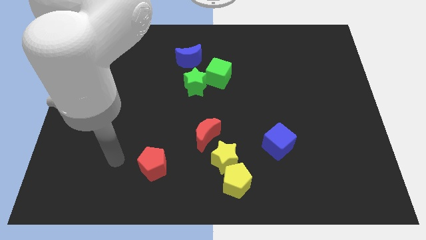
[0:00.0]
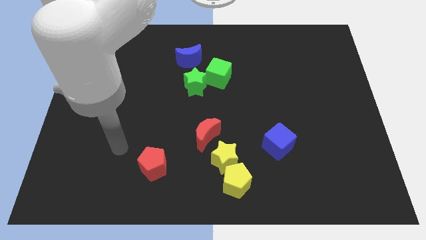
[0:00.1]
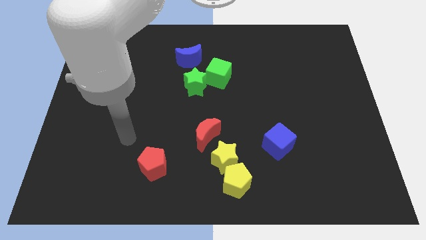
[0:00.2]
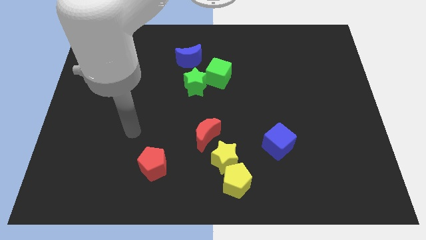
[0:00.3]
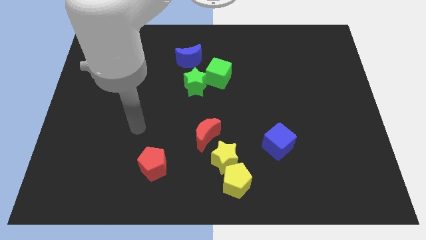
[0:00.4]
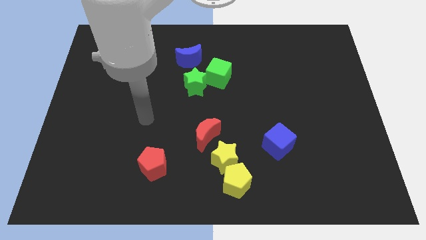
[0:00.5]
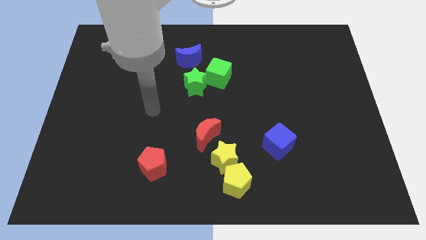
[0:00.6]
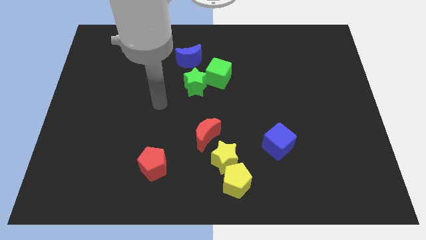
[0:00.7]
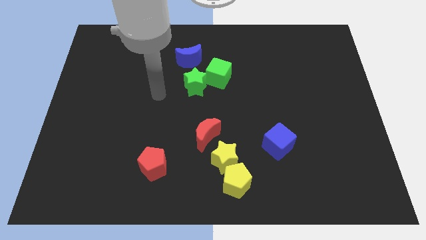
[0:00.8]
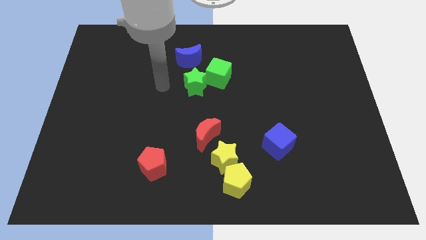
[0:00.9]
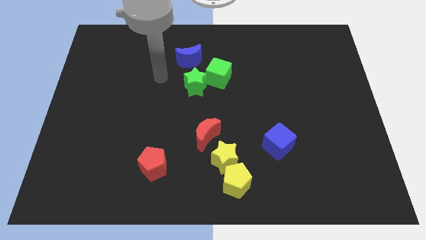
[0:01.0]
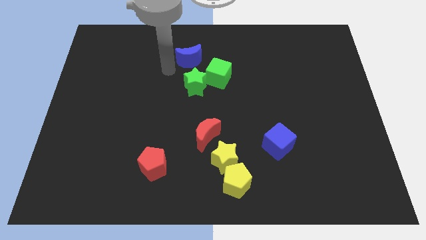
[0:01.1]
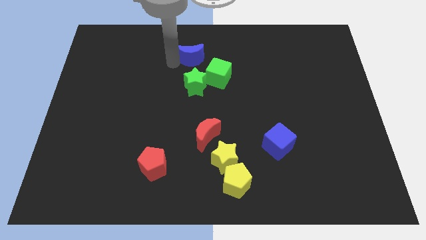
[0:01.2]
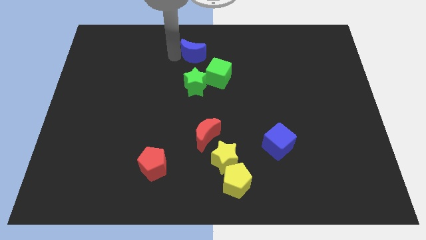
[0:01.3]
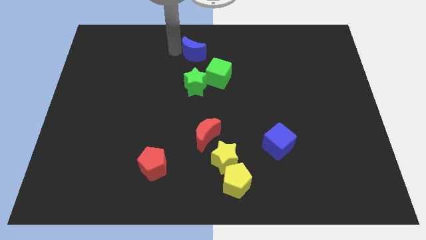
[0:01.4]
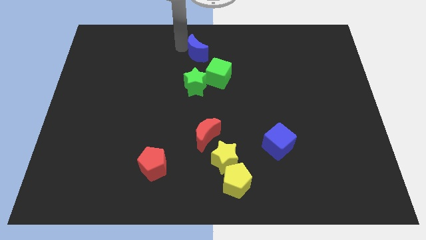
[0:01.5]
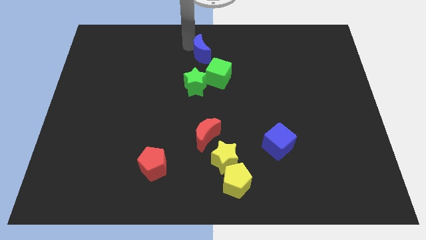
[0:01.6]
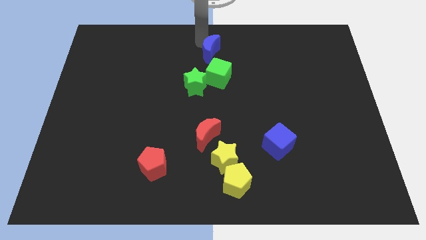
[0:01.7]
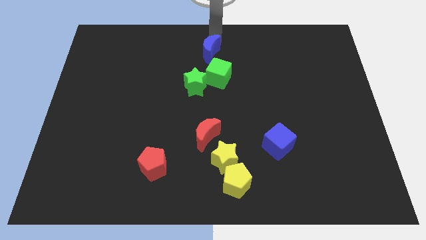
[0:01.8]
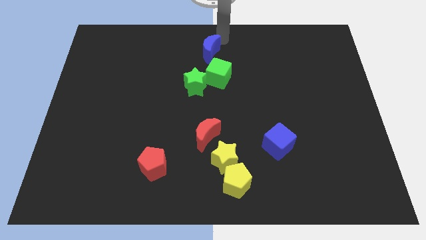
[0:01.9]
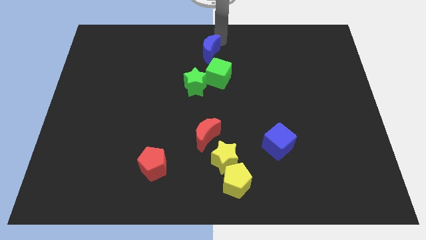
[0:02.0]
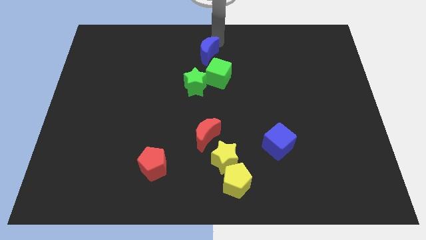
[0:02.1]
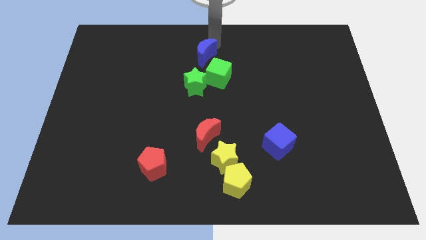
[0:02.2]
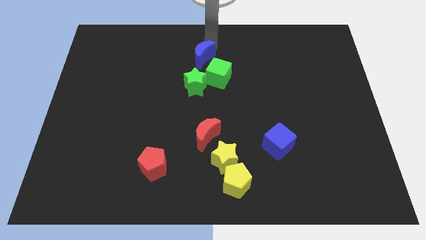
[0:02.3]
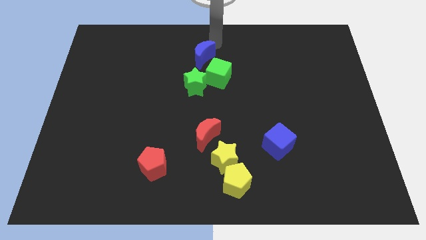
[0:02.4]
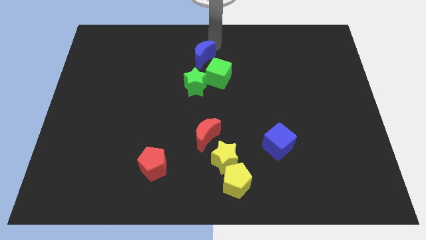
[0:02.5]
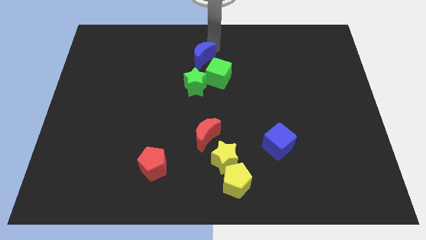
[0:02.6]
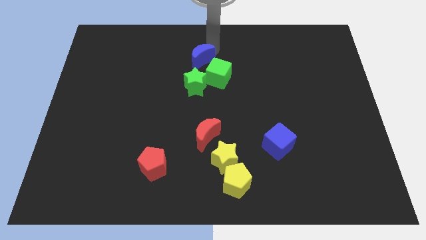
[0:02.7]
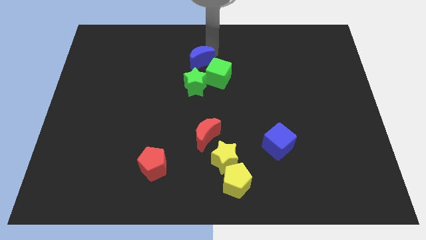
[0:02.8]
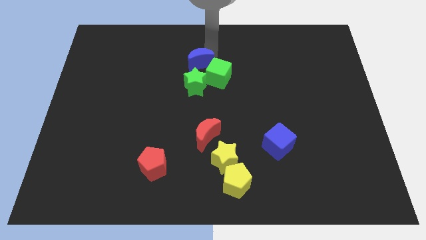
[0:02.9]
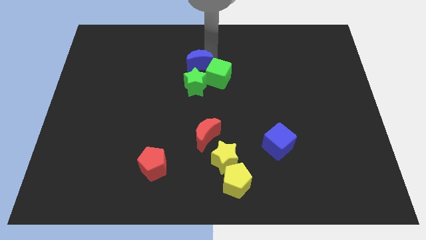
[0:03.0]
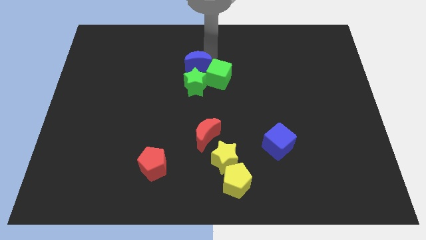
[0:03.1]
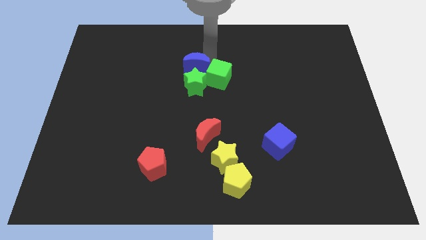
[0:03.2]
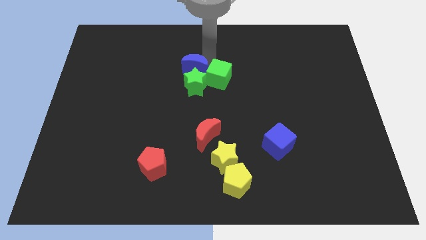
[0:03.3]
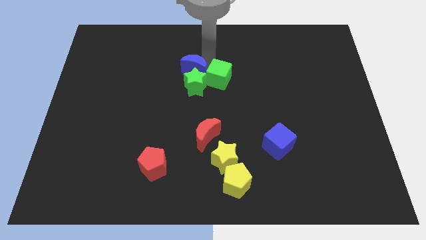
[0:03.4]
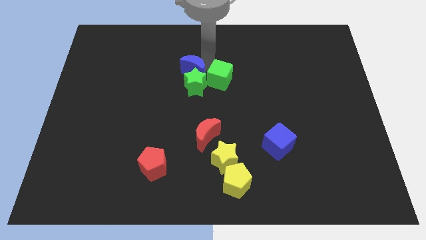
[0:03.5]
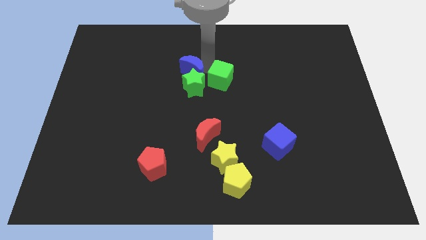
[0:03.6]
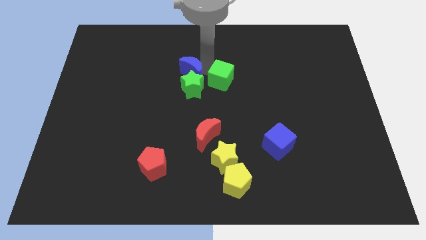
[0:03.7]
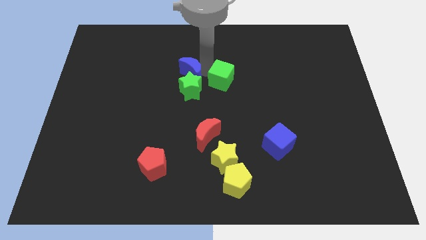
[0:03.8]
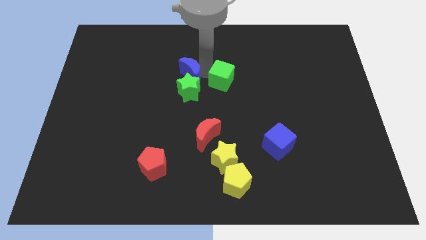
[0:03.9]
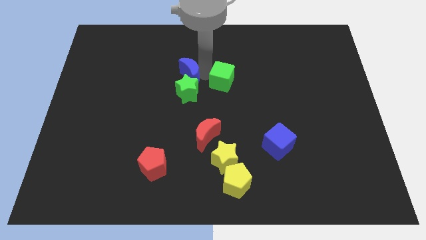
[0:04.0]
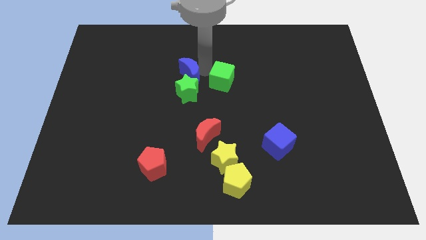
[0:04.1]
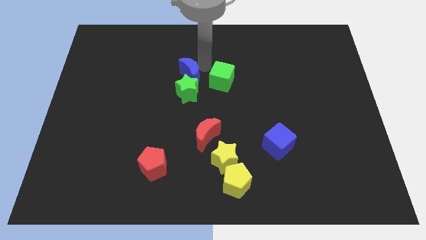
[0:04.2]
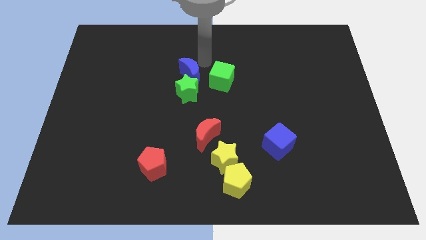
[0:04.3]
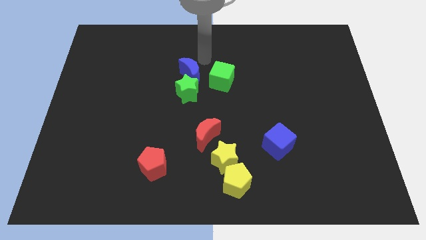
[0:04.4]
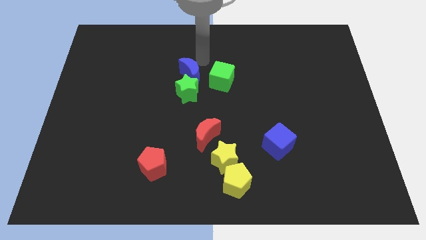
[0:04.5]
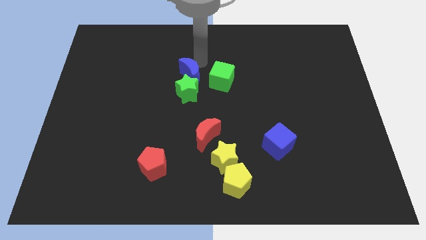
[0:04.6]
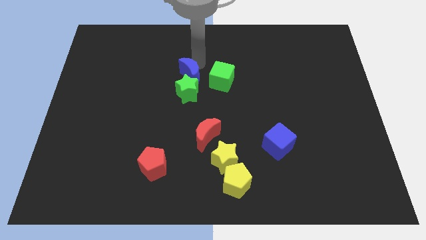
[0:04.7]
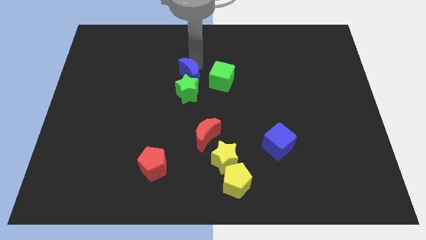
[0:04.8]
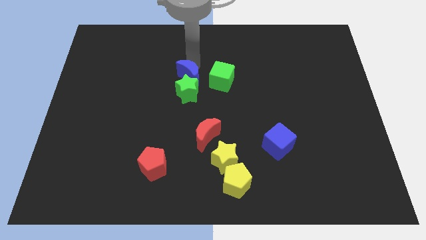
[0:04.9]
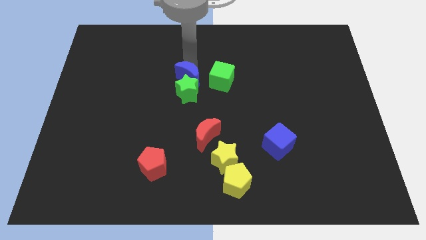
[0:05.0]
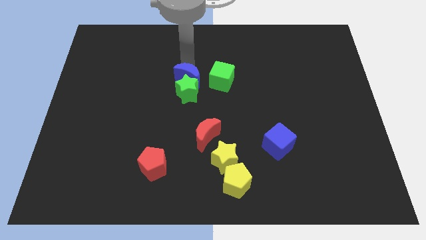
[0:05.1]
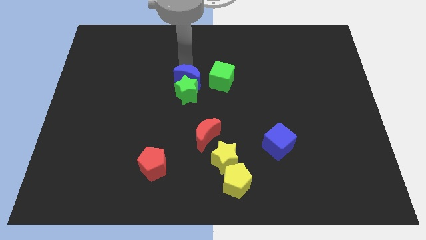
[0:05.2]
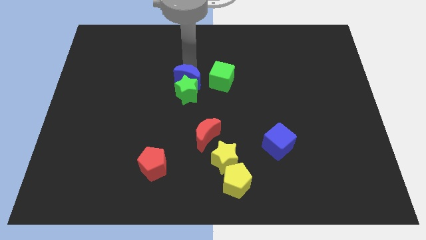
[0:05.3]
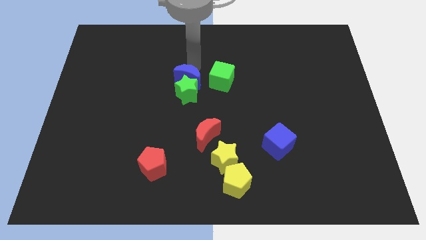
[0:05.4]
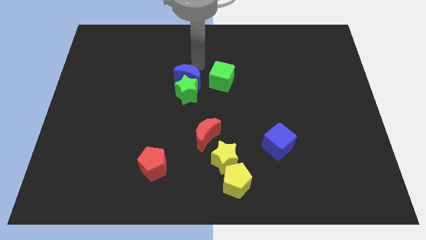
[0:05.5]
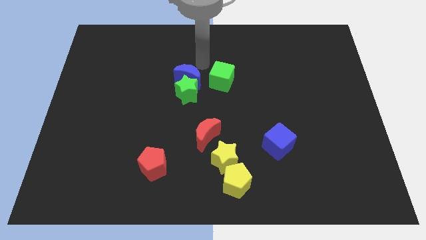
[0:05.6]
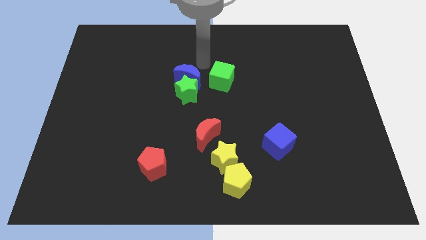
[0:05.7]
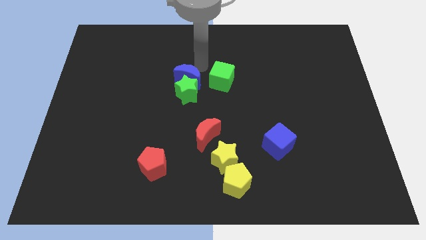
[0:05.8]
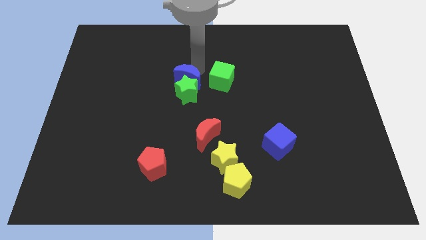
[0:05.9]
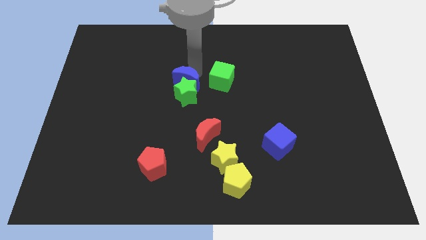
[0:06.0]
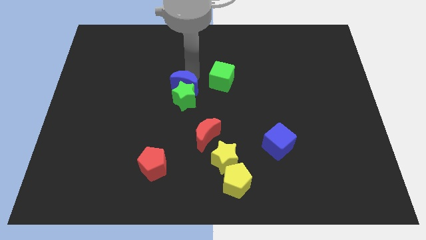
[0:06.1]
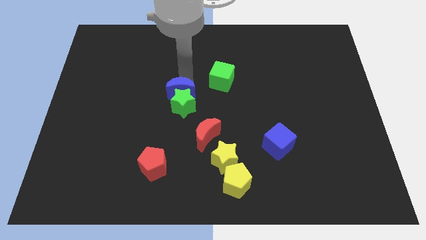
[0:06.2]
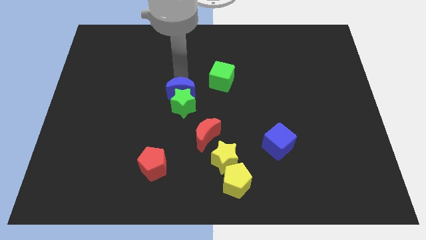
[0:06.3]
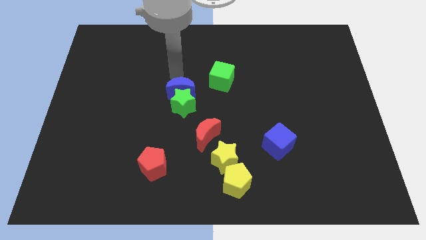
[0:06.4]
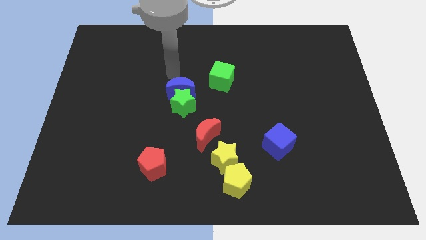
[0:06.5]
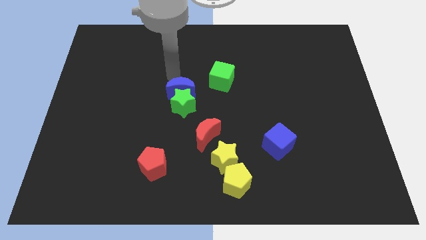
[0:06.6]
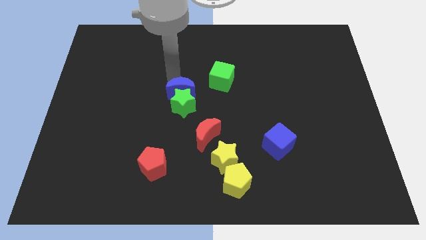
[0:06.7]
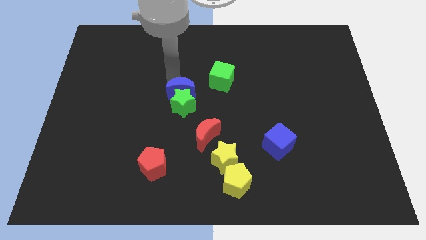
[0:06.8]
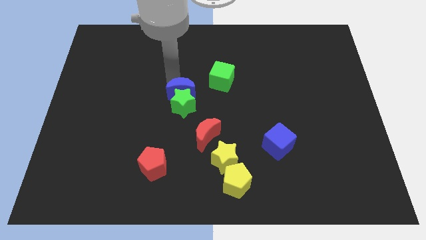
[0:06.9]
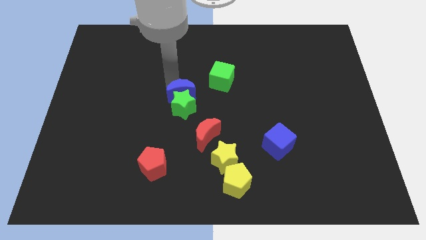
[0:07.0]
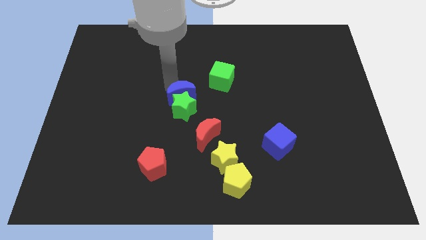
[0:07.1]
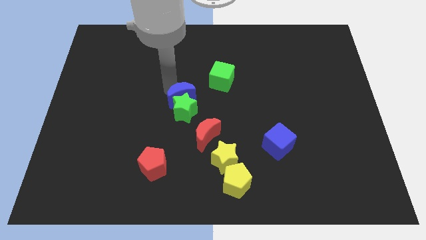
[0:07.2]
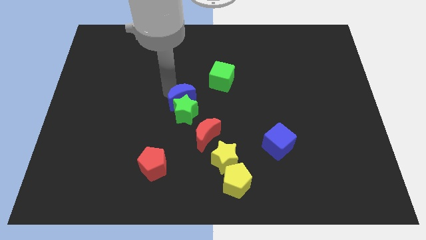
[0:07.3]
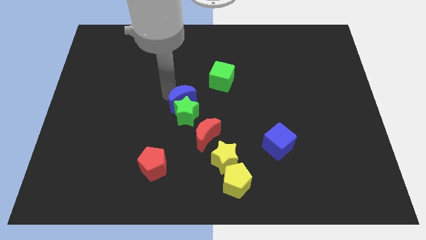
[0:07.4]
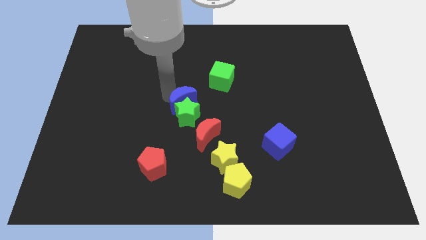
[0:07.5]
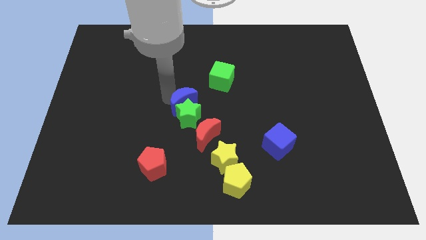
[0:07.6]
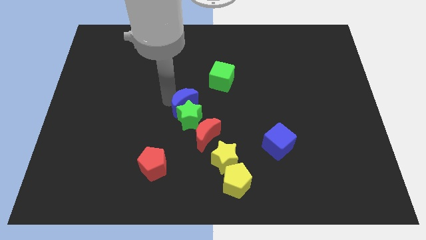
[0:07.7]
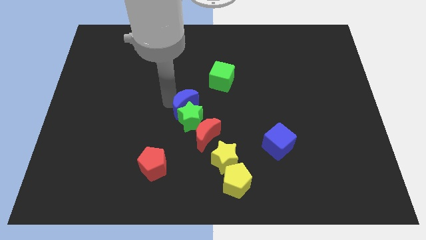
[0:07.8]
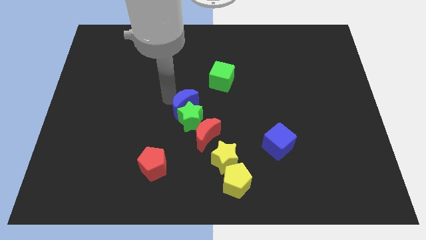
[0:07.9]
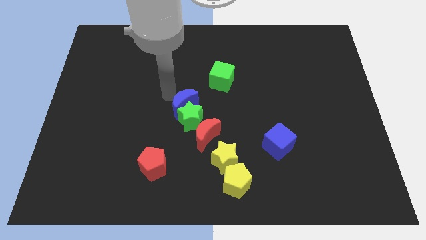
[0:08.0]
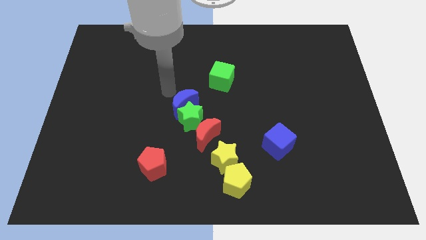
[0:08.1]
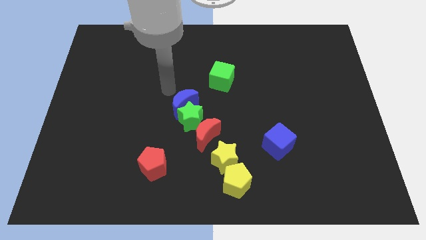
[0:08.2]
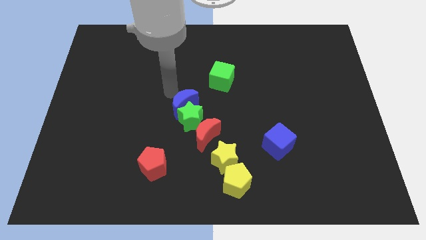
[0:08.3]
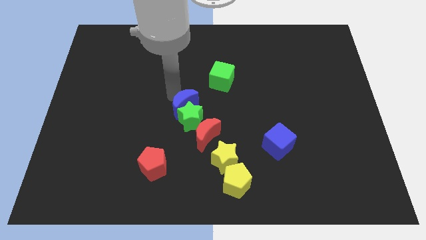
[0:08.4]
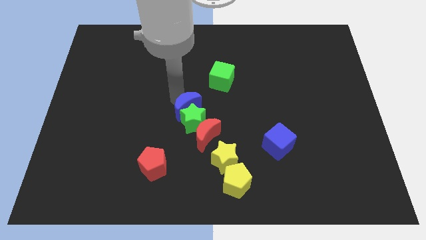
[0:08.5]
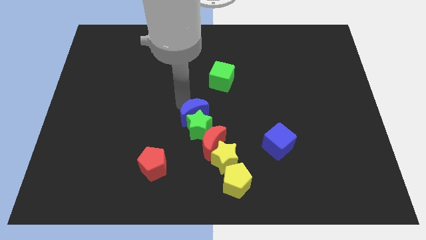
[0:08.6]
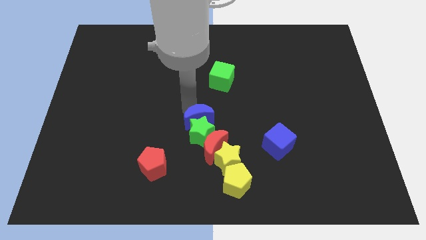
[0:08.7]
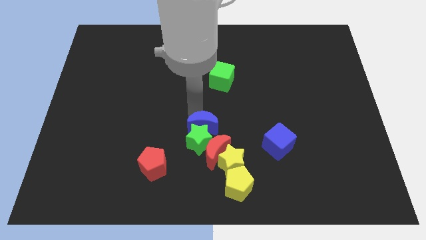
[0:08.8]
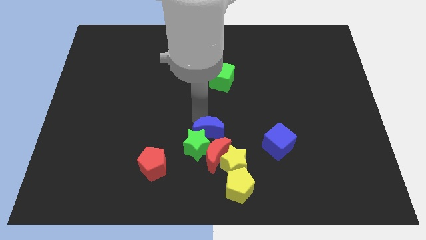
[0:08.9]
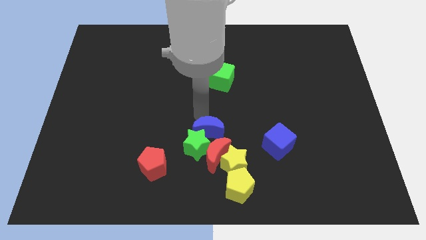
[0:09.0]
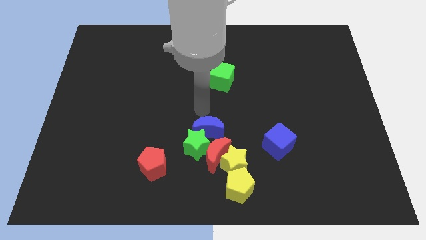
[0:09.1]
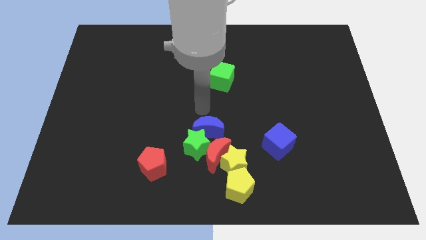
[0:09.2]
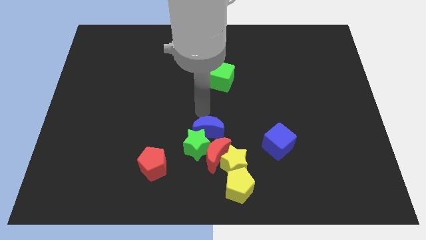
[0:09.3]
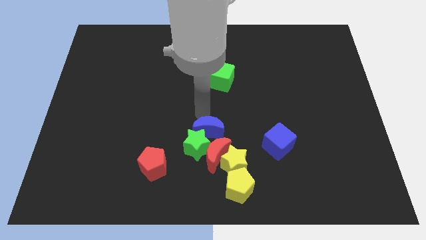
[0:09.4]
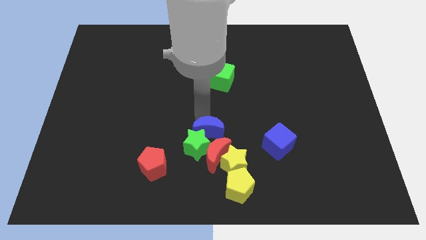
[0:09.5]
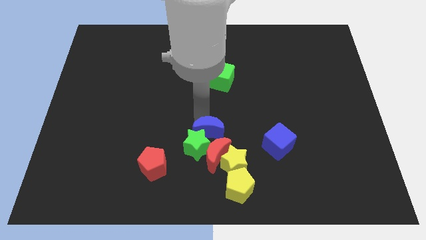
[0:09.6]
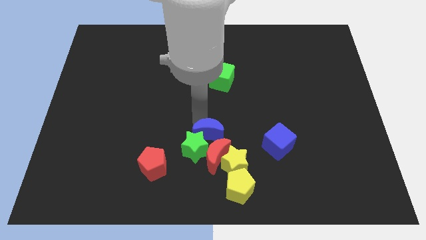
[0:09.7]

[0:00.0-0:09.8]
put the blue moon next to the red moon
